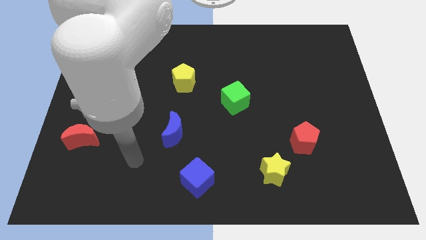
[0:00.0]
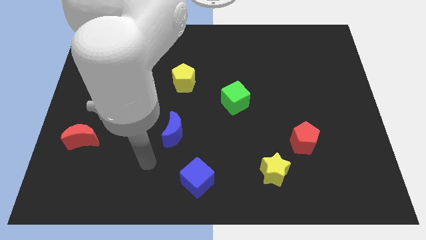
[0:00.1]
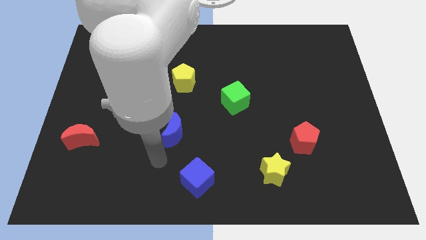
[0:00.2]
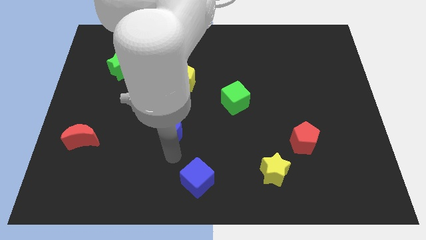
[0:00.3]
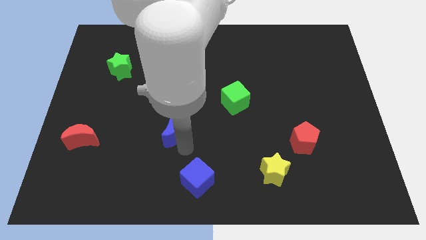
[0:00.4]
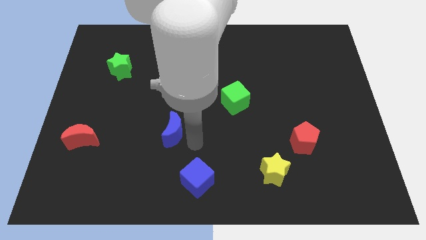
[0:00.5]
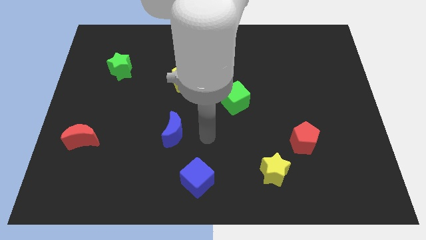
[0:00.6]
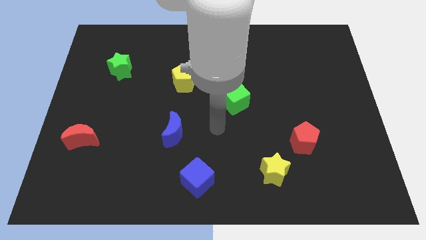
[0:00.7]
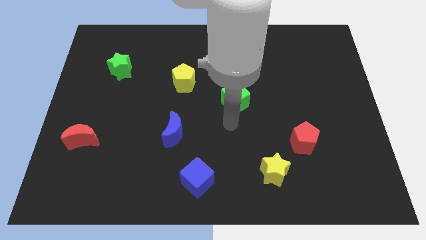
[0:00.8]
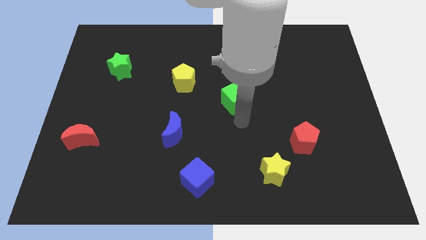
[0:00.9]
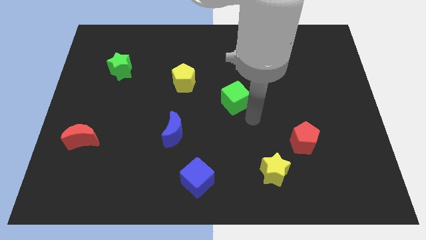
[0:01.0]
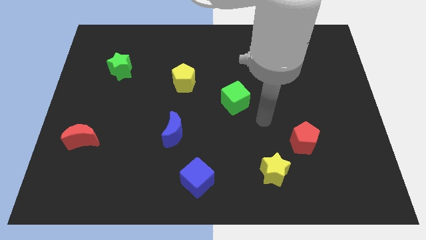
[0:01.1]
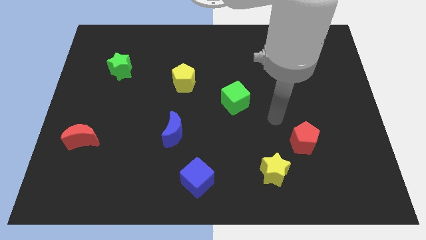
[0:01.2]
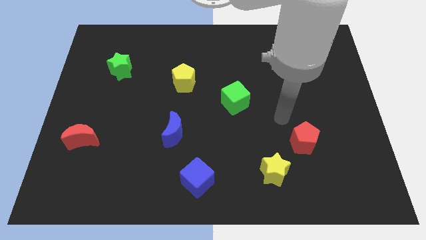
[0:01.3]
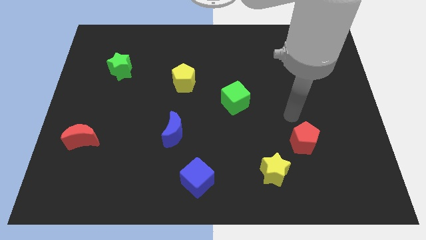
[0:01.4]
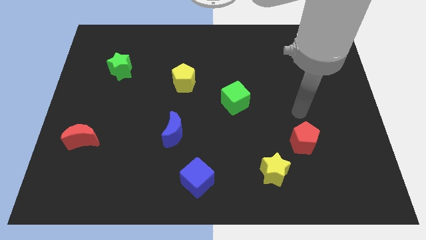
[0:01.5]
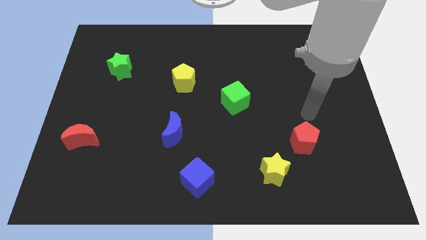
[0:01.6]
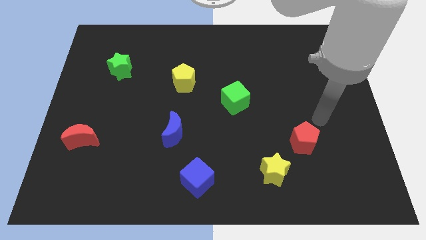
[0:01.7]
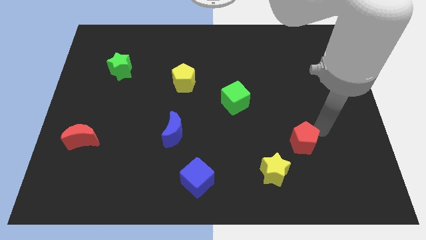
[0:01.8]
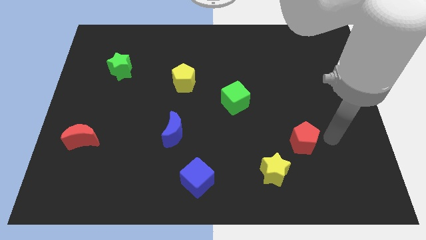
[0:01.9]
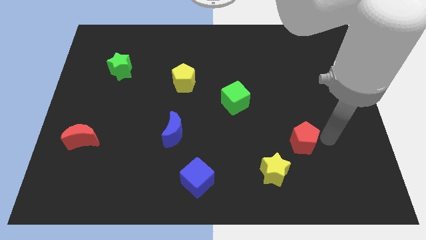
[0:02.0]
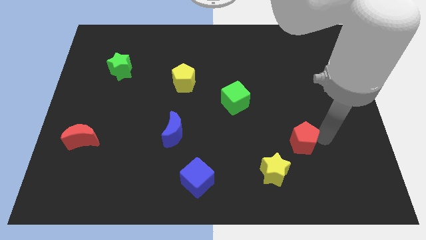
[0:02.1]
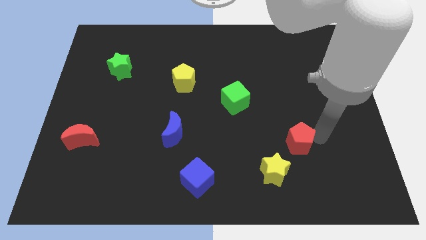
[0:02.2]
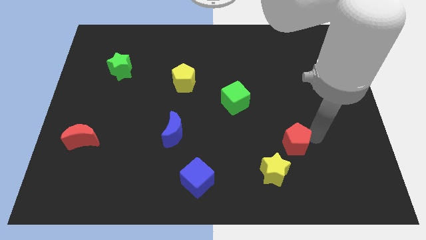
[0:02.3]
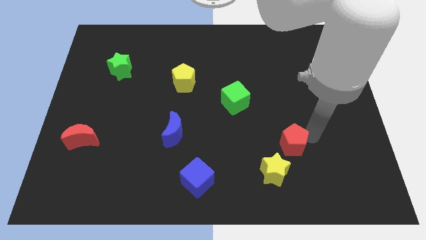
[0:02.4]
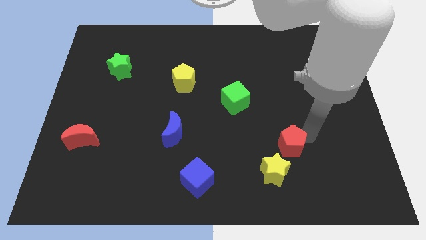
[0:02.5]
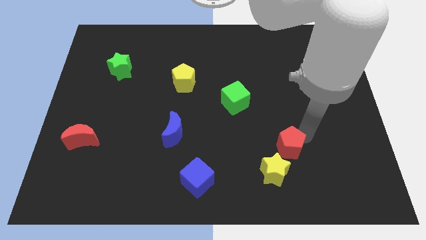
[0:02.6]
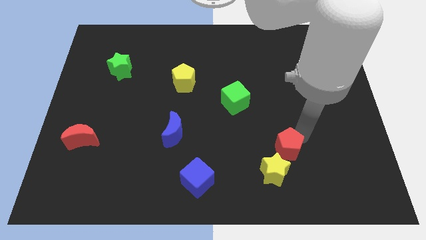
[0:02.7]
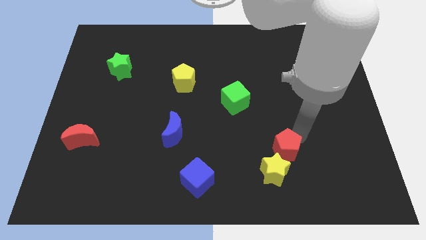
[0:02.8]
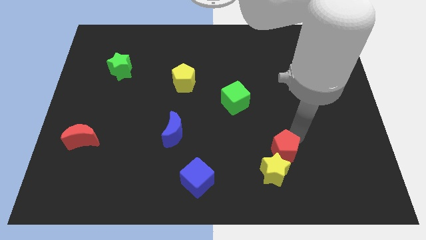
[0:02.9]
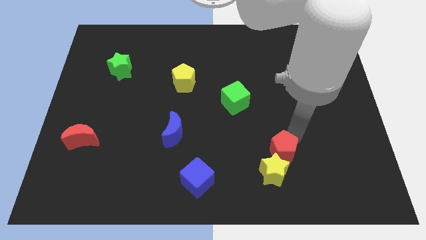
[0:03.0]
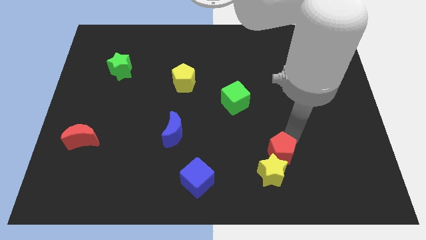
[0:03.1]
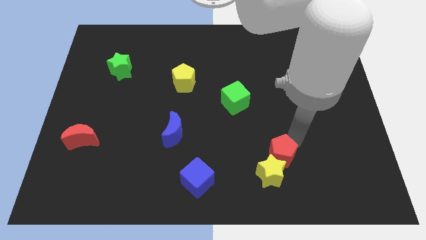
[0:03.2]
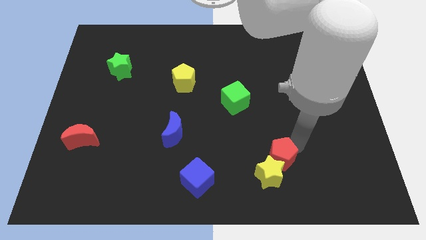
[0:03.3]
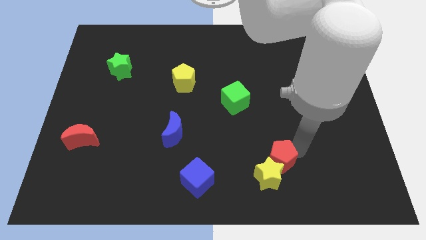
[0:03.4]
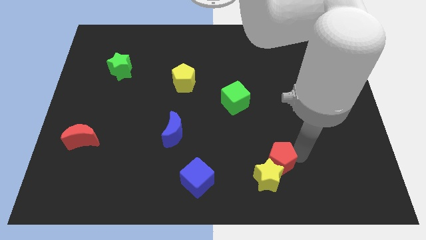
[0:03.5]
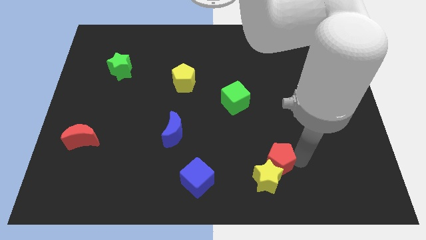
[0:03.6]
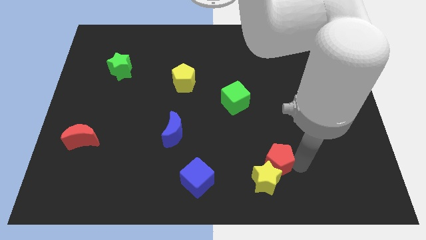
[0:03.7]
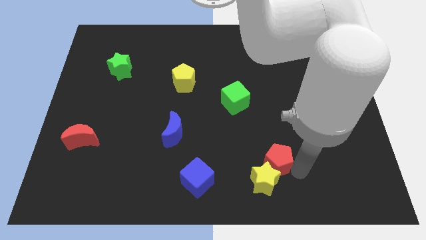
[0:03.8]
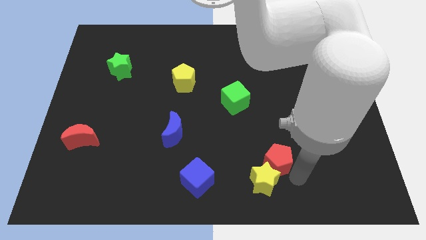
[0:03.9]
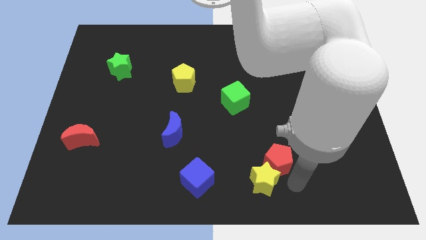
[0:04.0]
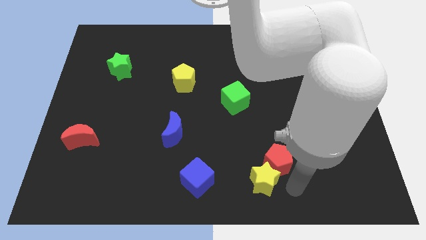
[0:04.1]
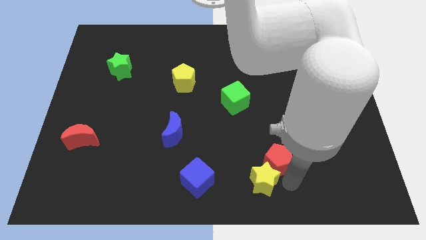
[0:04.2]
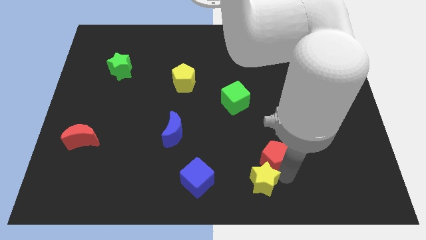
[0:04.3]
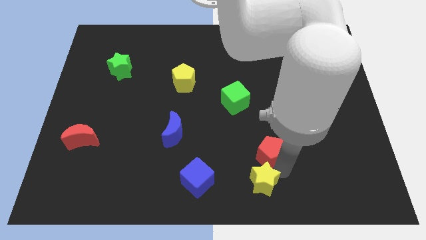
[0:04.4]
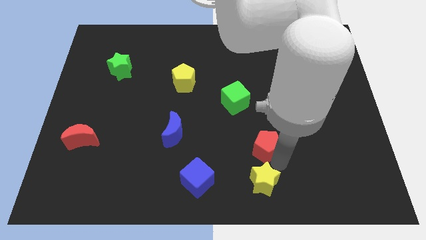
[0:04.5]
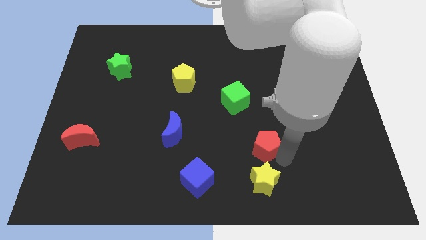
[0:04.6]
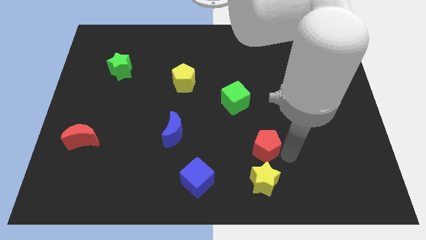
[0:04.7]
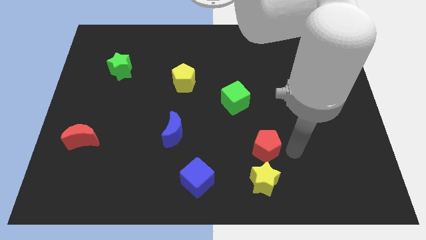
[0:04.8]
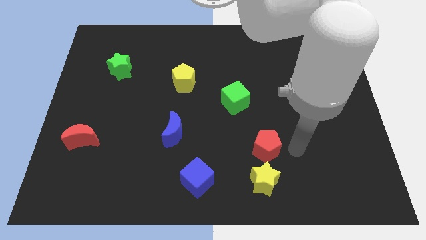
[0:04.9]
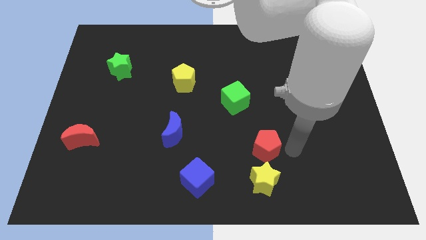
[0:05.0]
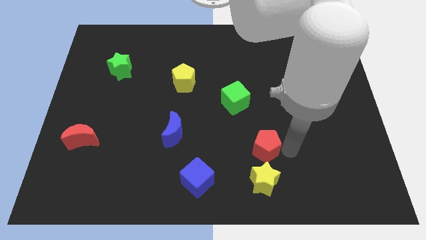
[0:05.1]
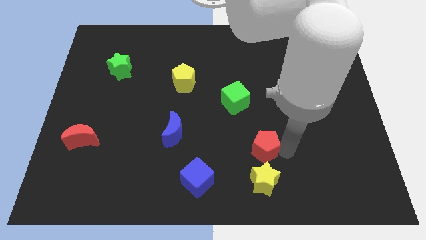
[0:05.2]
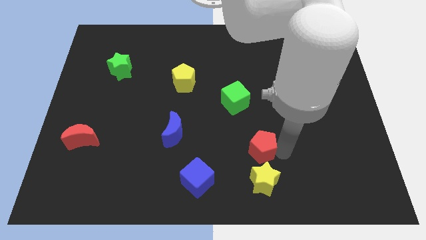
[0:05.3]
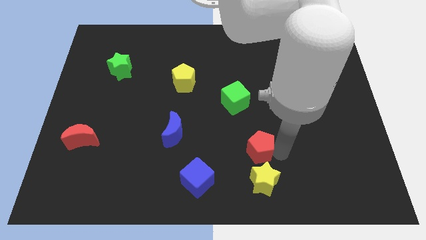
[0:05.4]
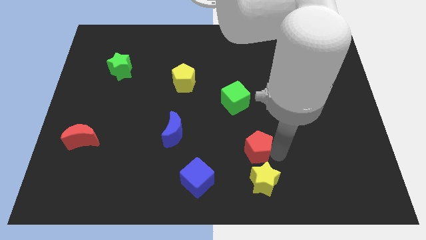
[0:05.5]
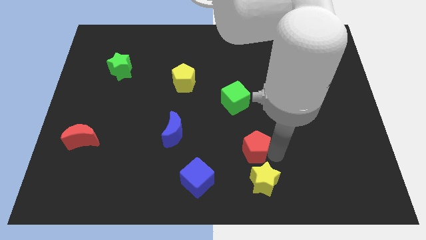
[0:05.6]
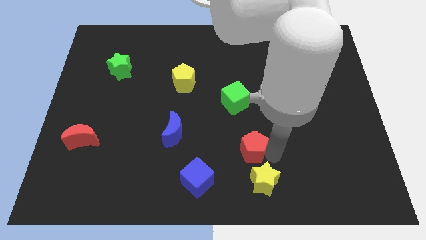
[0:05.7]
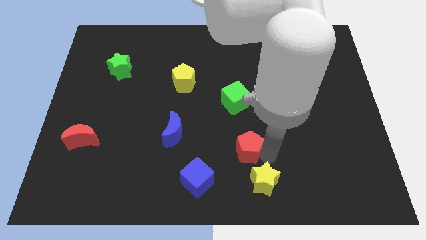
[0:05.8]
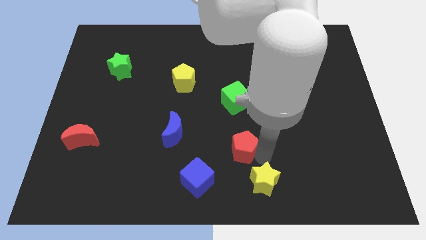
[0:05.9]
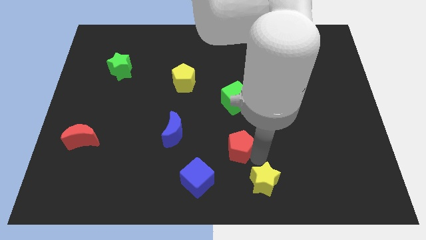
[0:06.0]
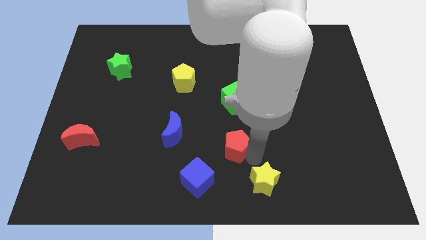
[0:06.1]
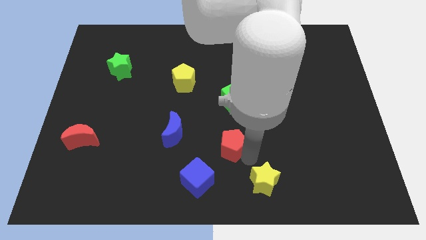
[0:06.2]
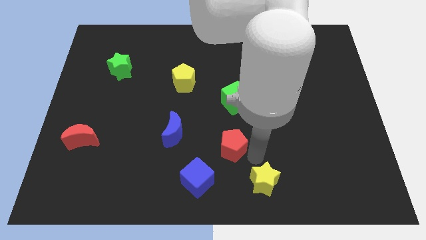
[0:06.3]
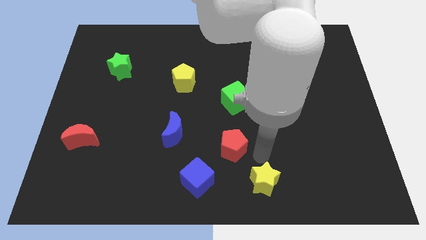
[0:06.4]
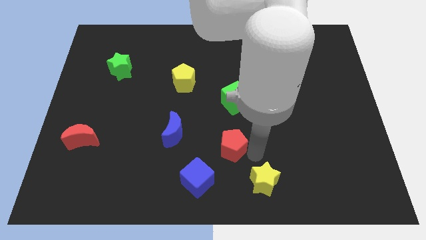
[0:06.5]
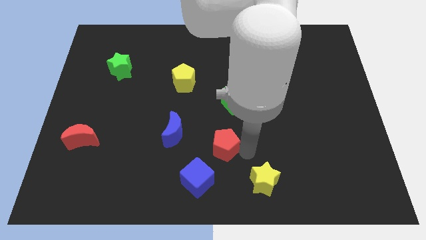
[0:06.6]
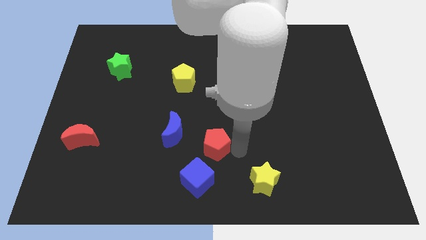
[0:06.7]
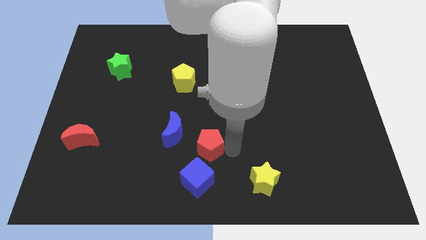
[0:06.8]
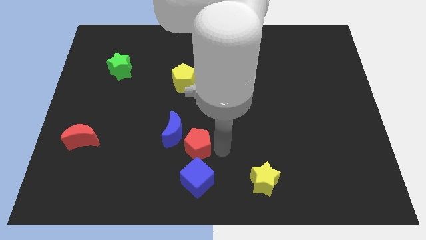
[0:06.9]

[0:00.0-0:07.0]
push the red pentagon to the blue moon
